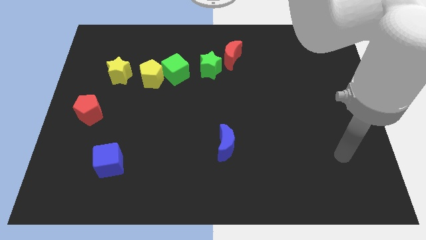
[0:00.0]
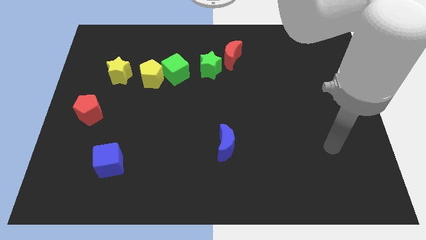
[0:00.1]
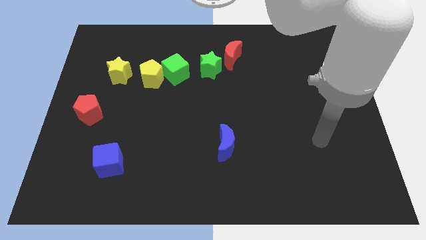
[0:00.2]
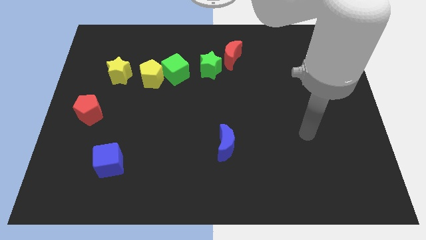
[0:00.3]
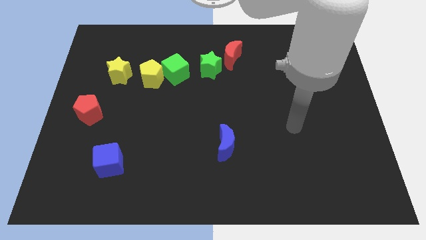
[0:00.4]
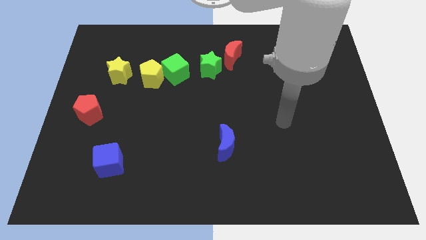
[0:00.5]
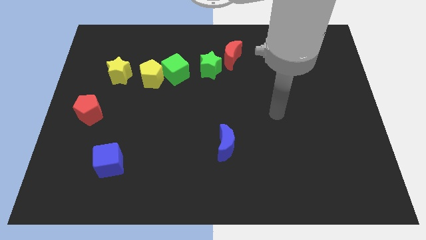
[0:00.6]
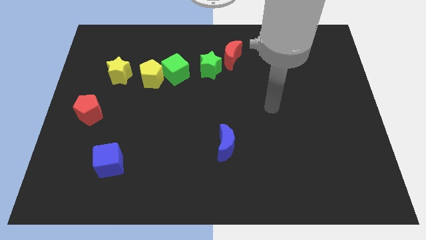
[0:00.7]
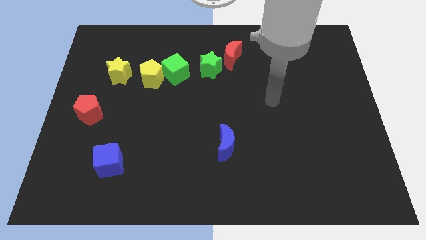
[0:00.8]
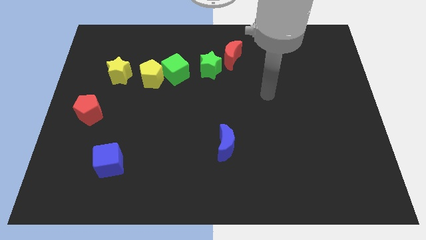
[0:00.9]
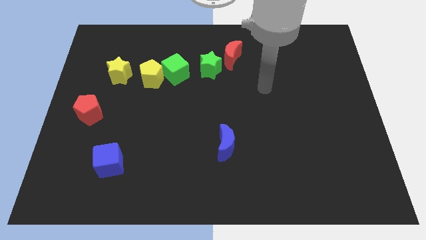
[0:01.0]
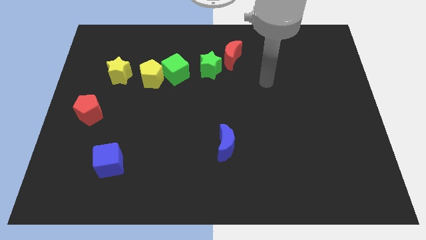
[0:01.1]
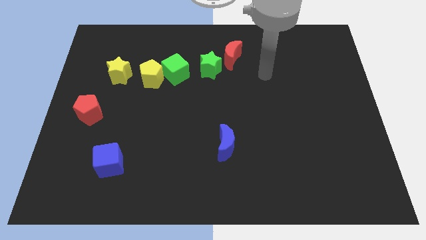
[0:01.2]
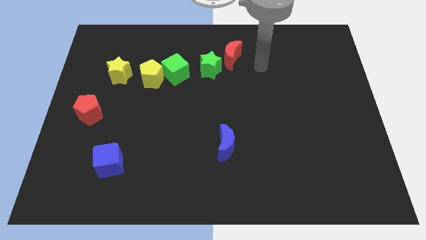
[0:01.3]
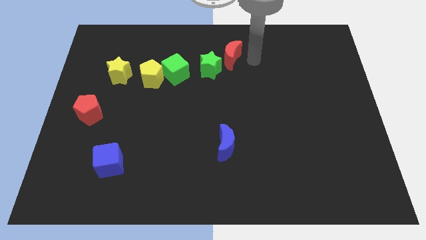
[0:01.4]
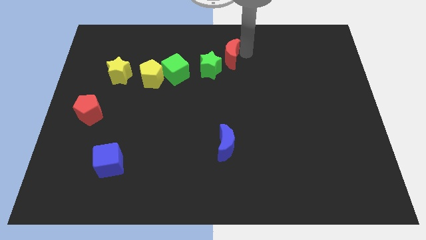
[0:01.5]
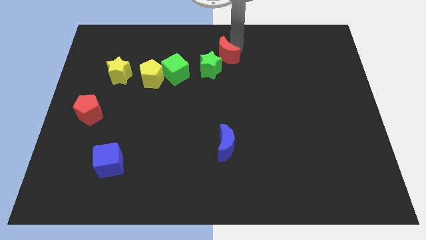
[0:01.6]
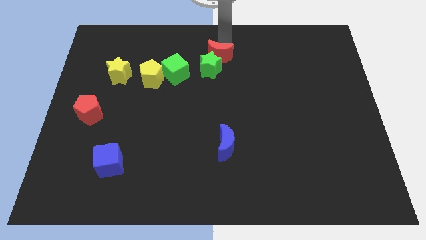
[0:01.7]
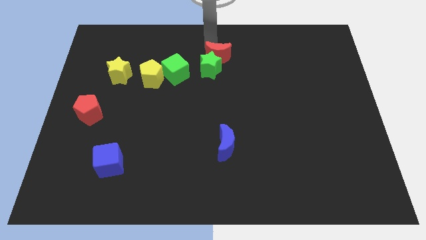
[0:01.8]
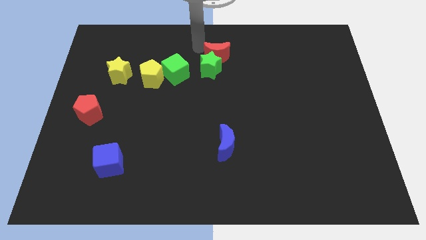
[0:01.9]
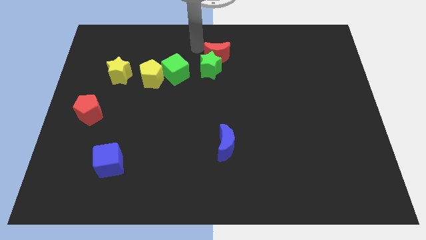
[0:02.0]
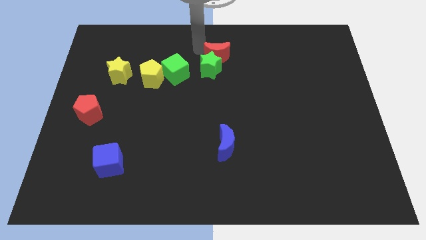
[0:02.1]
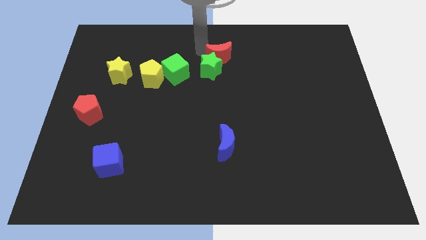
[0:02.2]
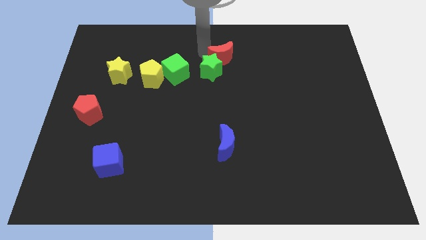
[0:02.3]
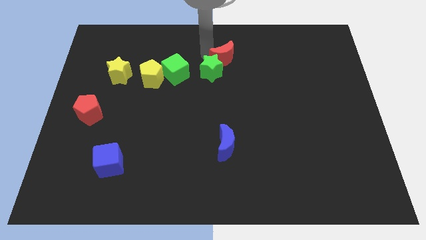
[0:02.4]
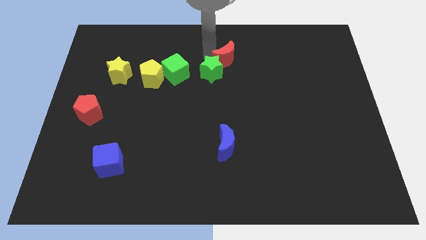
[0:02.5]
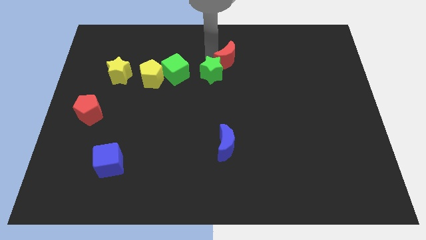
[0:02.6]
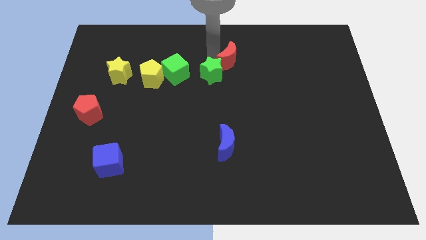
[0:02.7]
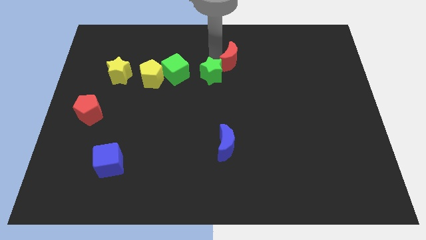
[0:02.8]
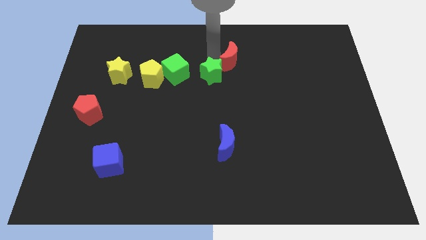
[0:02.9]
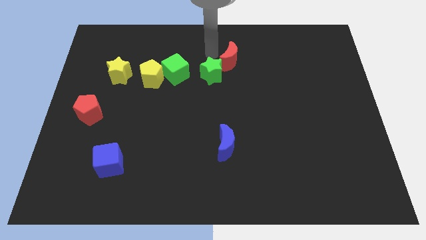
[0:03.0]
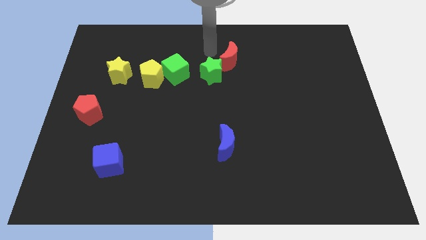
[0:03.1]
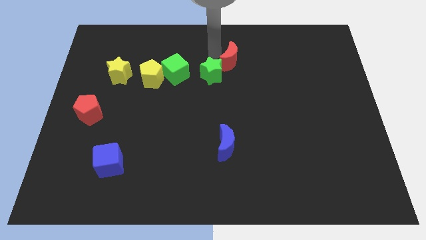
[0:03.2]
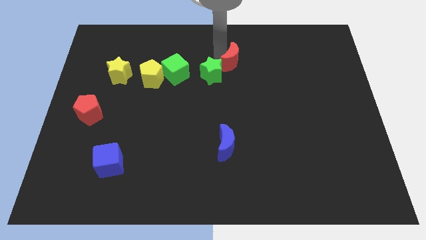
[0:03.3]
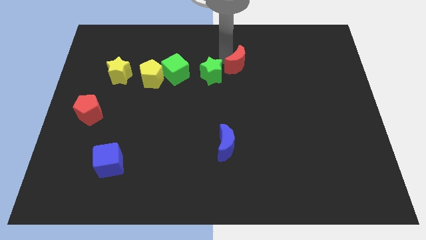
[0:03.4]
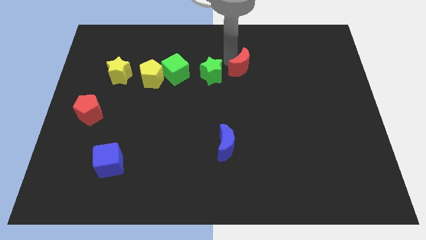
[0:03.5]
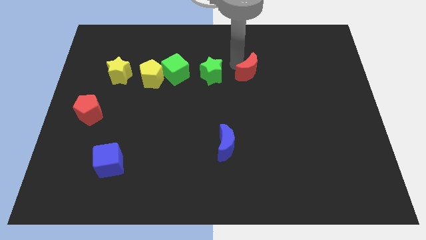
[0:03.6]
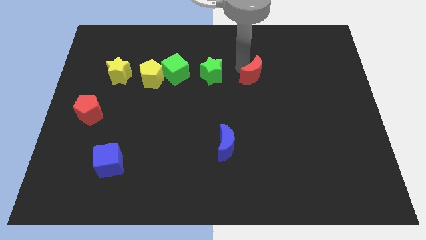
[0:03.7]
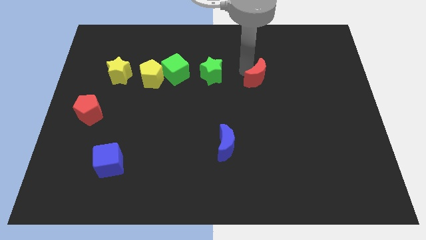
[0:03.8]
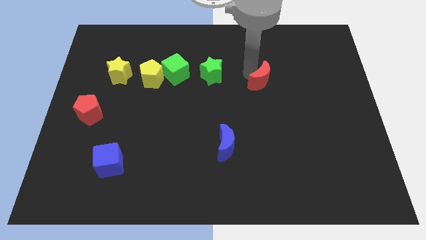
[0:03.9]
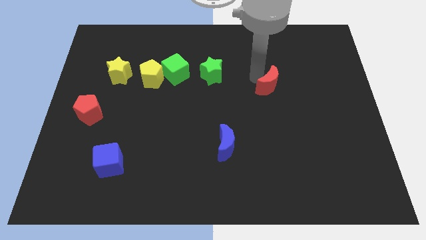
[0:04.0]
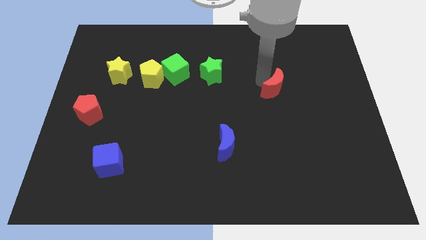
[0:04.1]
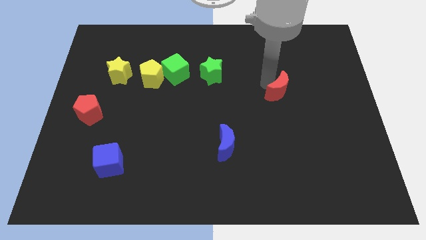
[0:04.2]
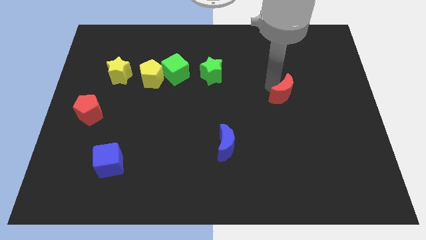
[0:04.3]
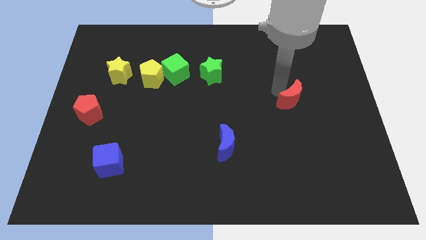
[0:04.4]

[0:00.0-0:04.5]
move the red moon downwards and to the right diagonally

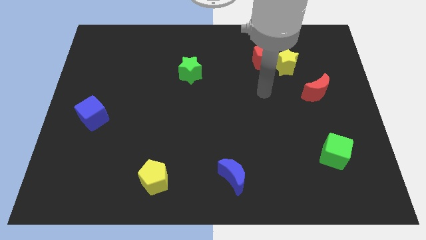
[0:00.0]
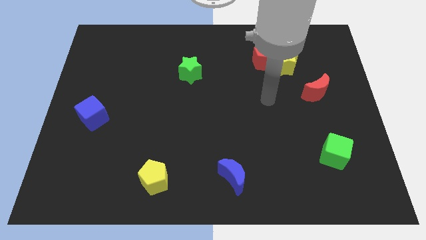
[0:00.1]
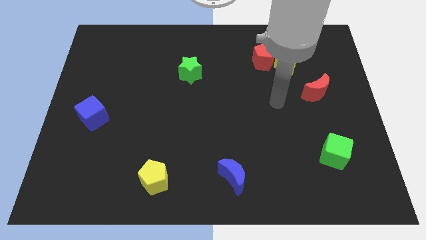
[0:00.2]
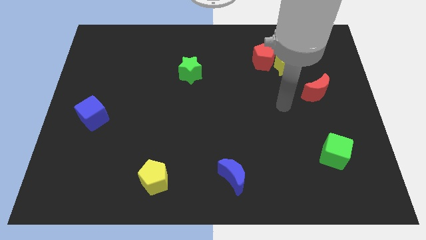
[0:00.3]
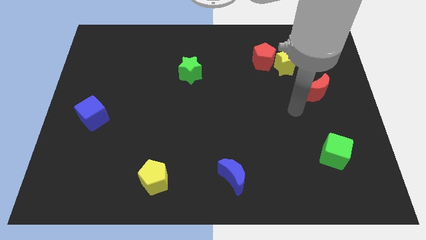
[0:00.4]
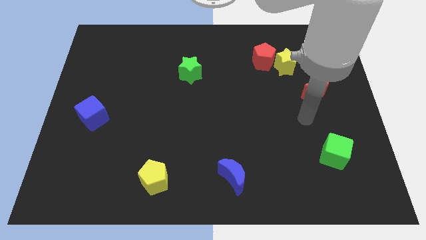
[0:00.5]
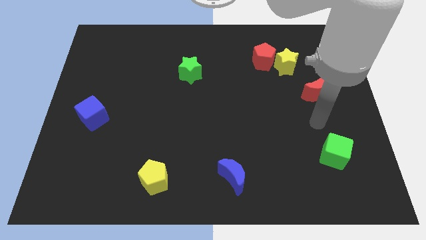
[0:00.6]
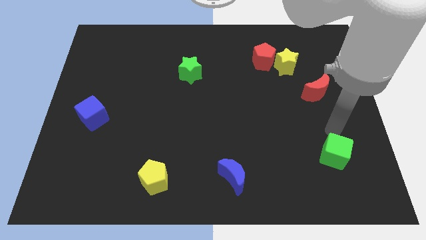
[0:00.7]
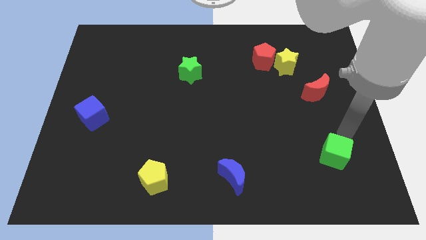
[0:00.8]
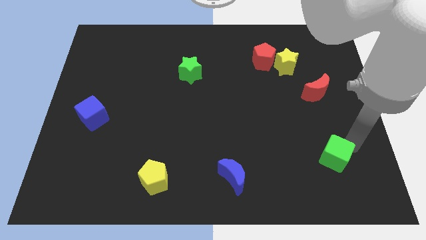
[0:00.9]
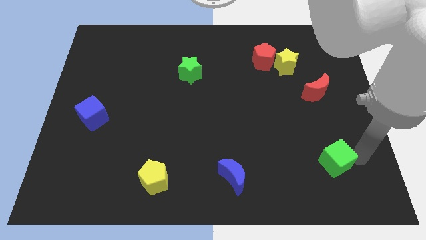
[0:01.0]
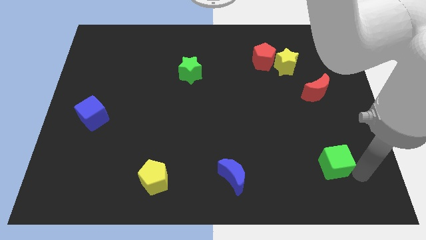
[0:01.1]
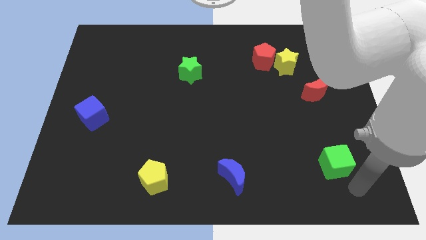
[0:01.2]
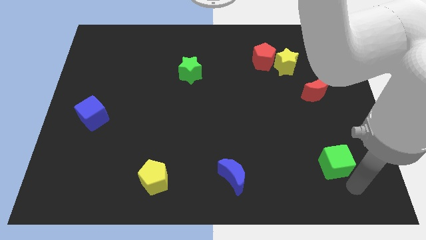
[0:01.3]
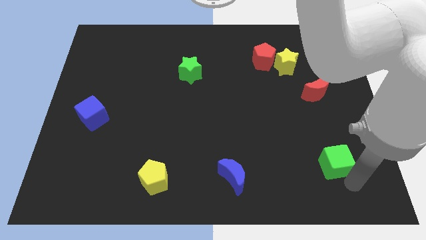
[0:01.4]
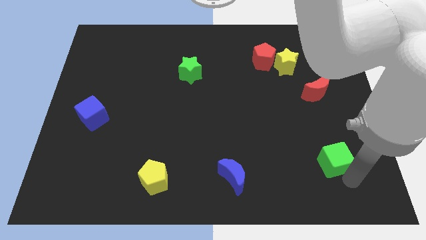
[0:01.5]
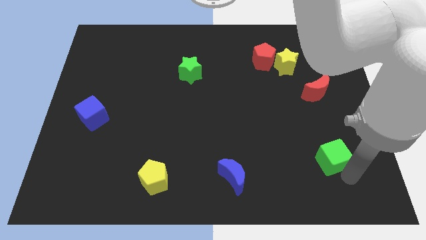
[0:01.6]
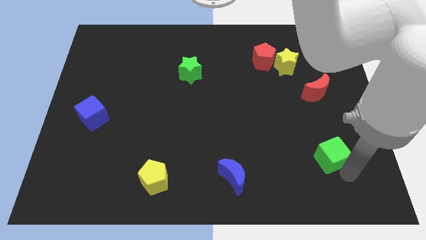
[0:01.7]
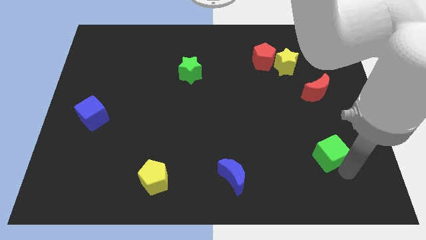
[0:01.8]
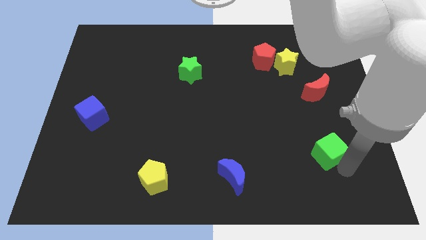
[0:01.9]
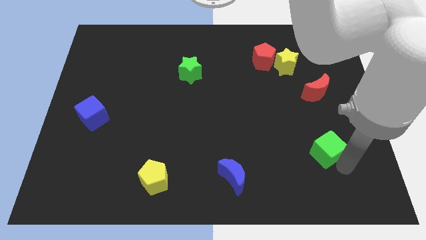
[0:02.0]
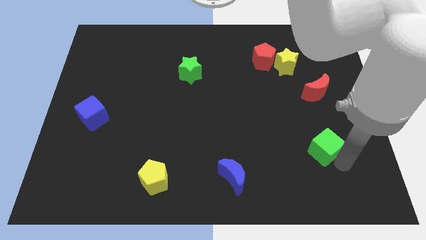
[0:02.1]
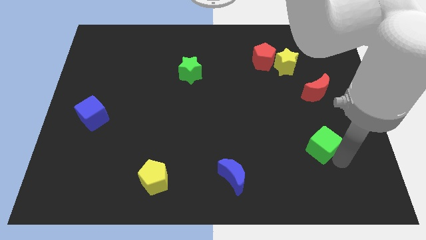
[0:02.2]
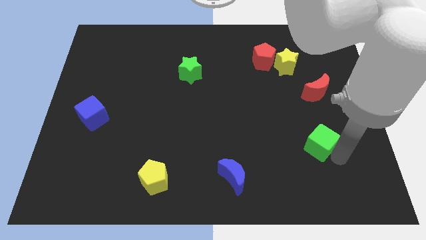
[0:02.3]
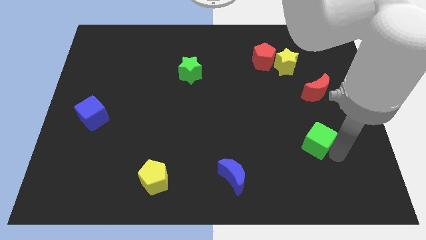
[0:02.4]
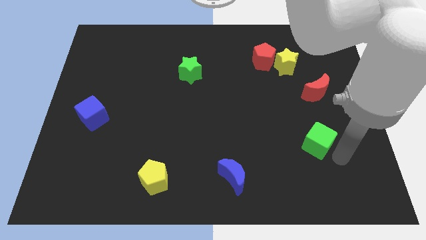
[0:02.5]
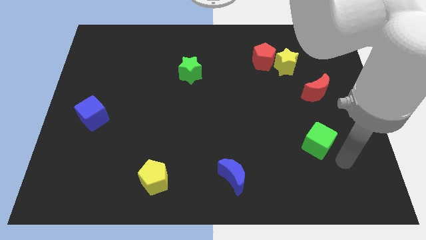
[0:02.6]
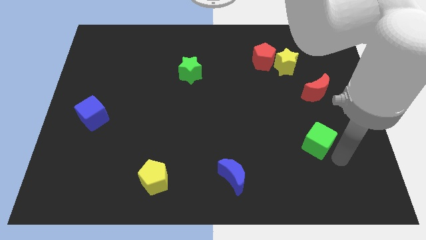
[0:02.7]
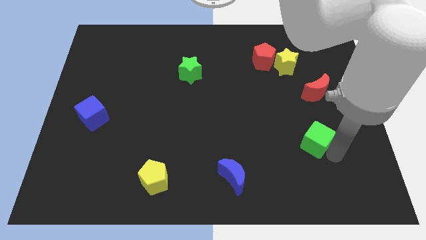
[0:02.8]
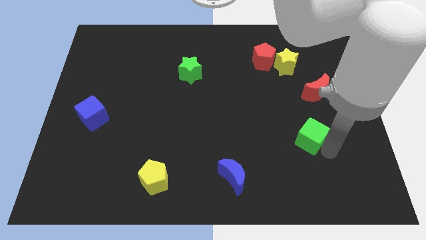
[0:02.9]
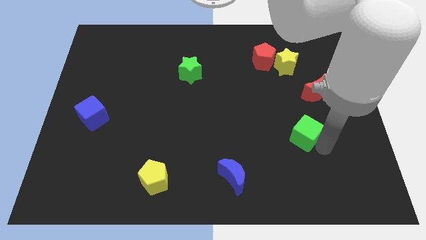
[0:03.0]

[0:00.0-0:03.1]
slightly slide the green cube upwards and left

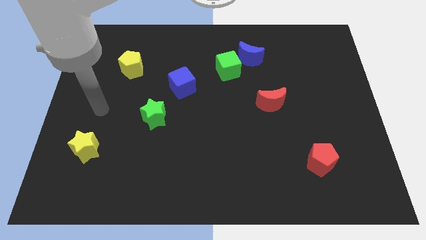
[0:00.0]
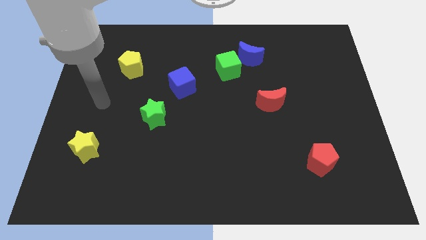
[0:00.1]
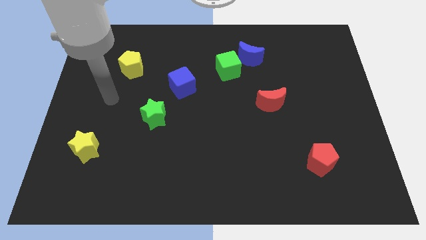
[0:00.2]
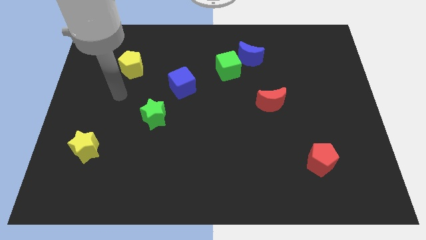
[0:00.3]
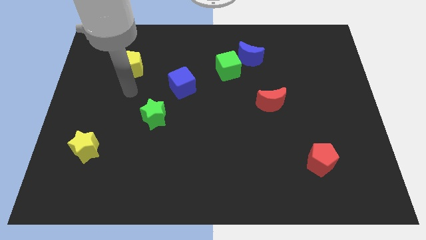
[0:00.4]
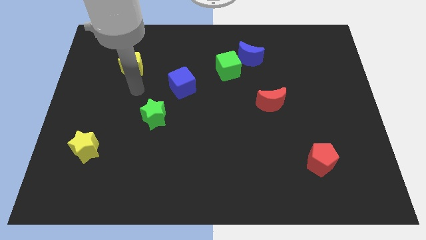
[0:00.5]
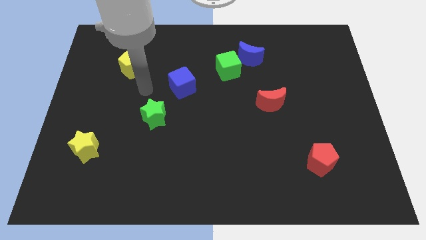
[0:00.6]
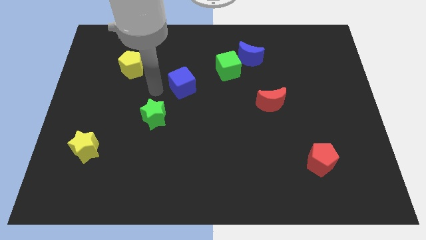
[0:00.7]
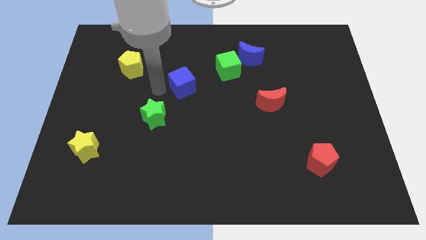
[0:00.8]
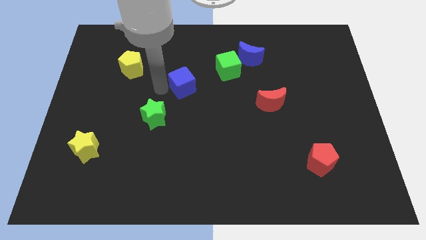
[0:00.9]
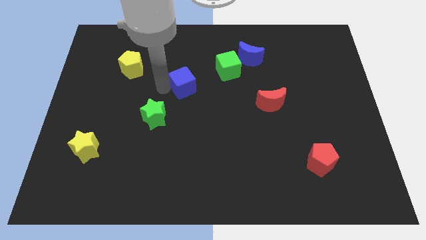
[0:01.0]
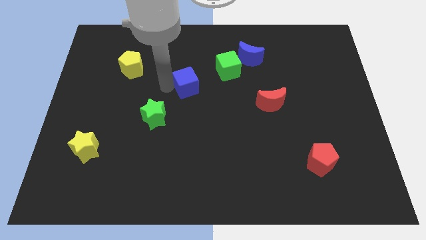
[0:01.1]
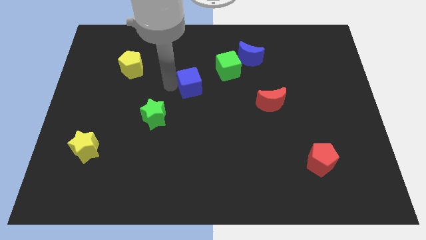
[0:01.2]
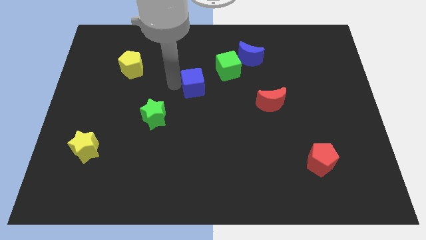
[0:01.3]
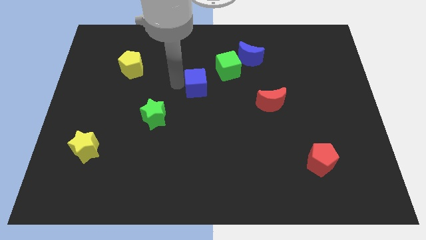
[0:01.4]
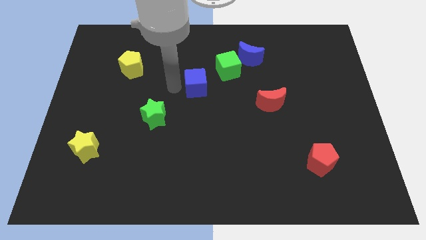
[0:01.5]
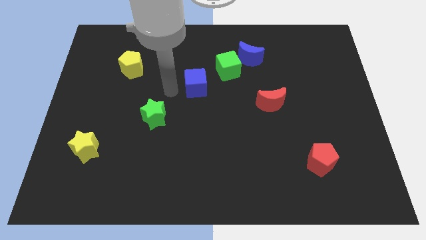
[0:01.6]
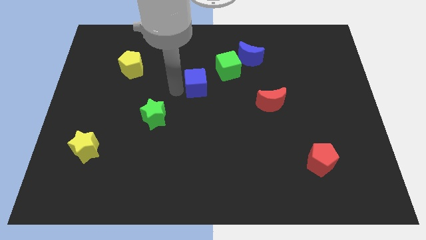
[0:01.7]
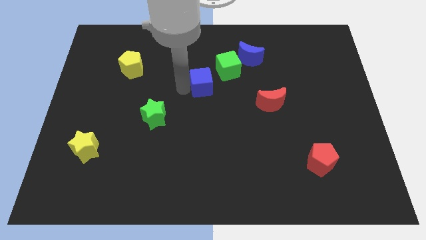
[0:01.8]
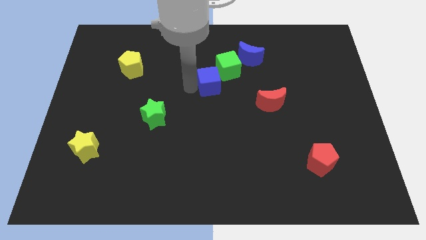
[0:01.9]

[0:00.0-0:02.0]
push the blue cube somewhat to the right
